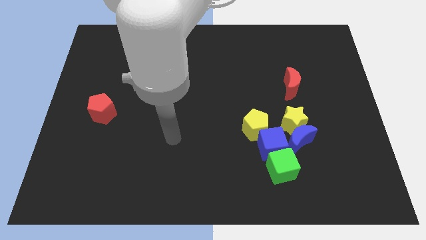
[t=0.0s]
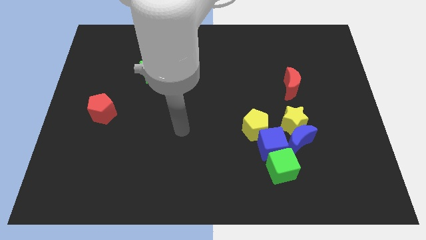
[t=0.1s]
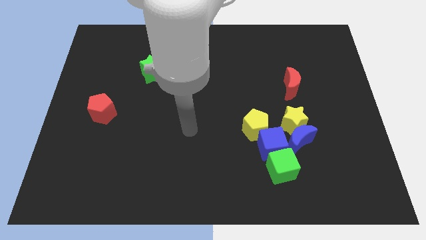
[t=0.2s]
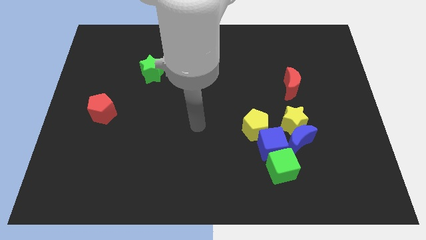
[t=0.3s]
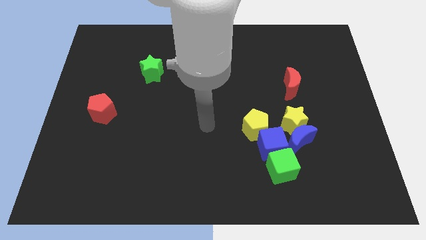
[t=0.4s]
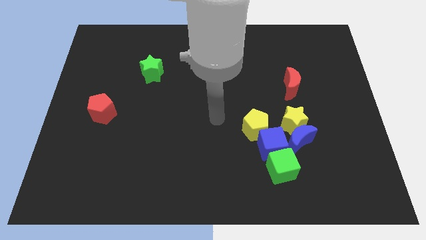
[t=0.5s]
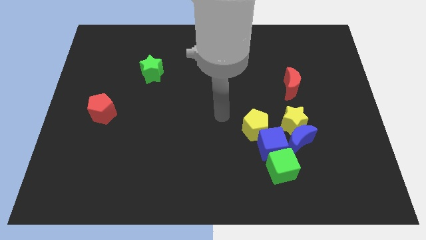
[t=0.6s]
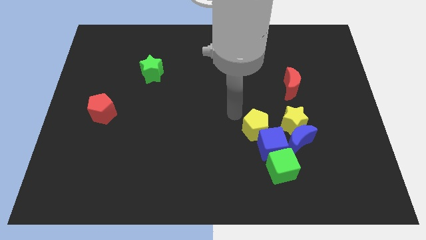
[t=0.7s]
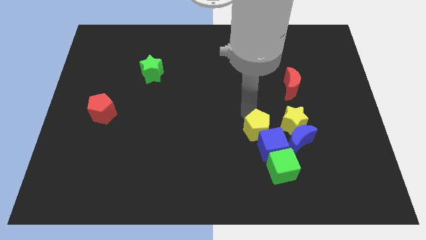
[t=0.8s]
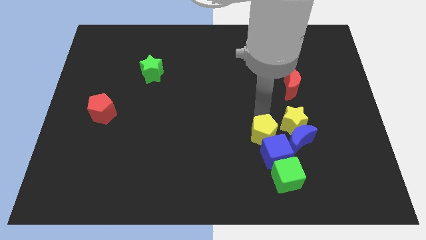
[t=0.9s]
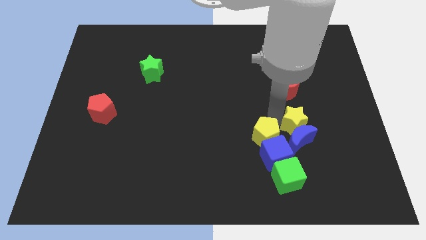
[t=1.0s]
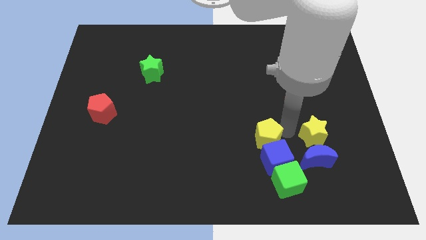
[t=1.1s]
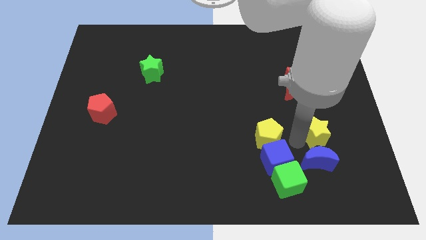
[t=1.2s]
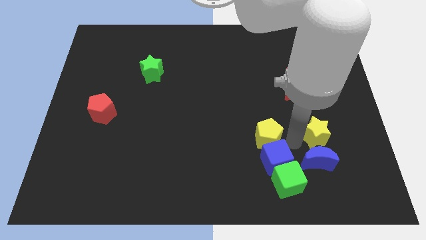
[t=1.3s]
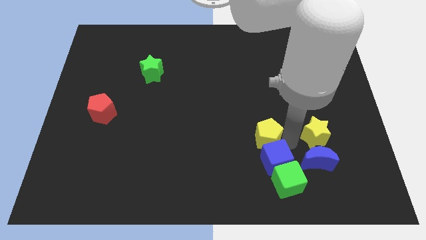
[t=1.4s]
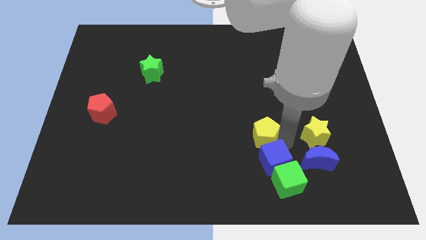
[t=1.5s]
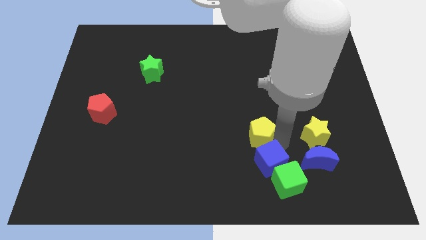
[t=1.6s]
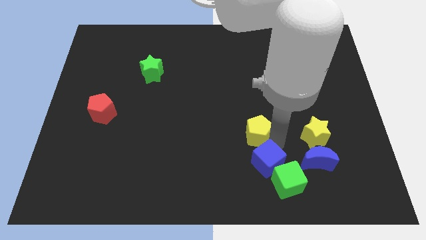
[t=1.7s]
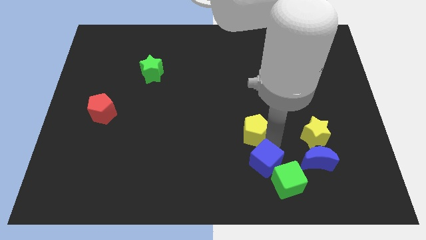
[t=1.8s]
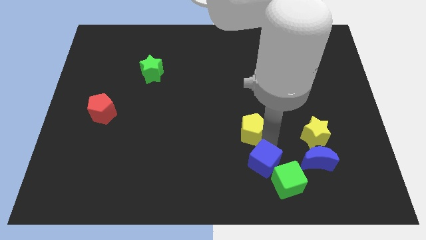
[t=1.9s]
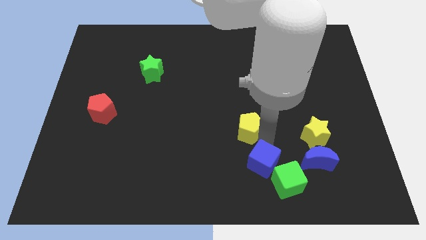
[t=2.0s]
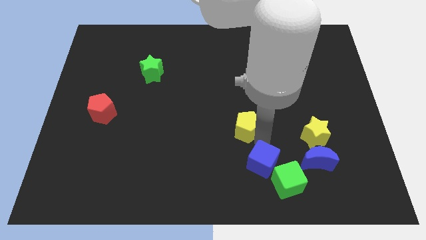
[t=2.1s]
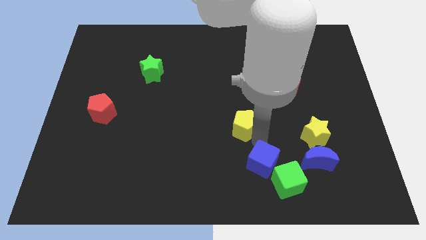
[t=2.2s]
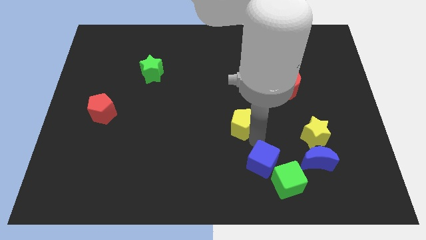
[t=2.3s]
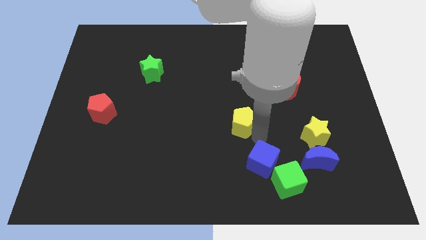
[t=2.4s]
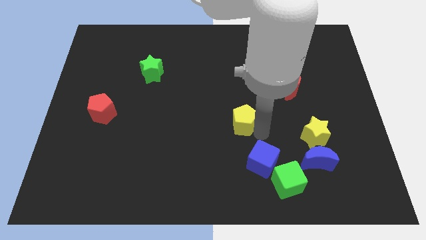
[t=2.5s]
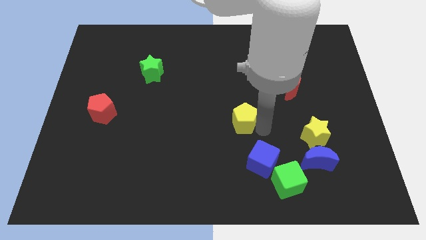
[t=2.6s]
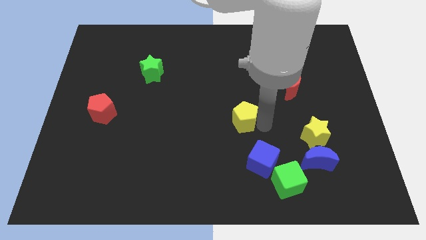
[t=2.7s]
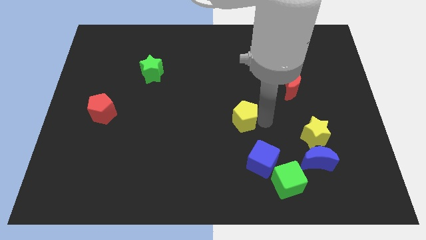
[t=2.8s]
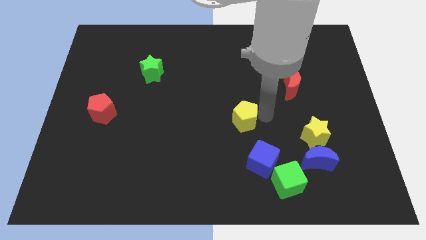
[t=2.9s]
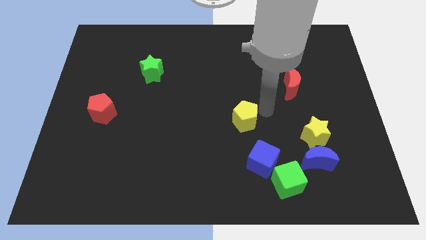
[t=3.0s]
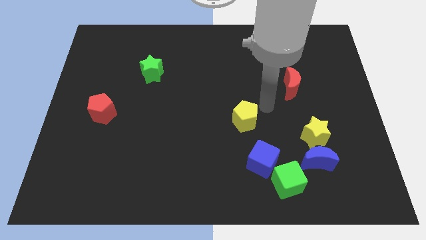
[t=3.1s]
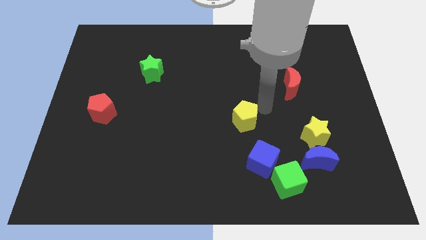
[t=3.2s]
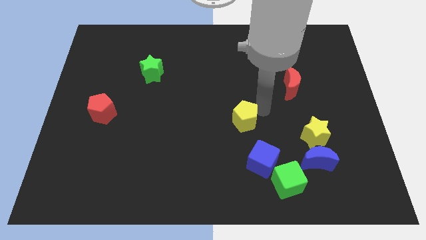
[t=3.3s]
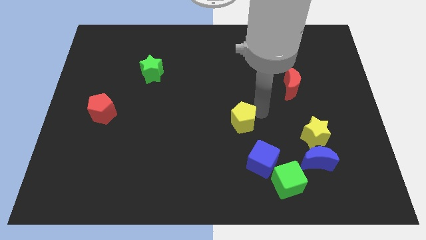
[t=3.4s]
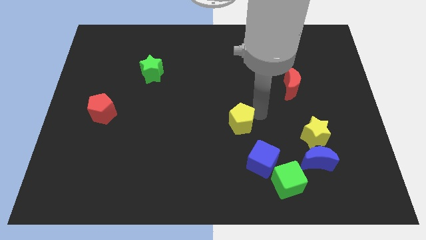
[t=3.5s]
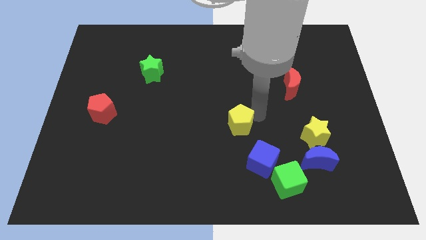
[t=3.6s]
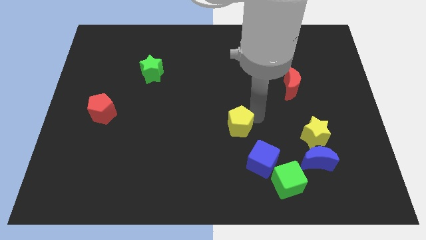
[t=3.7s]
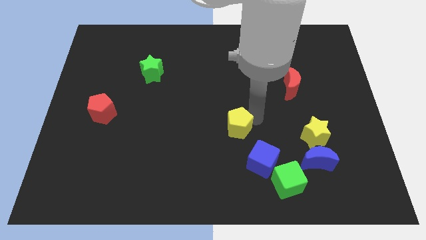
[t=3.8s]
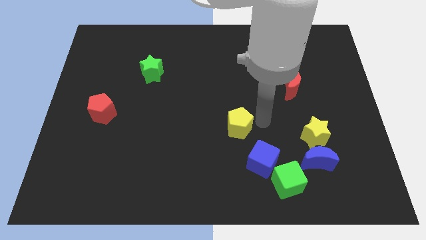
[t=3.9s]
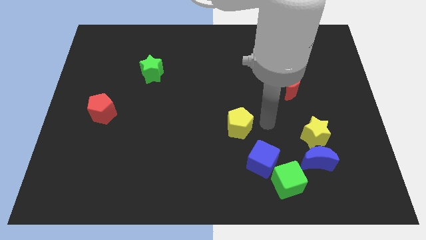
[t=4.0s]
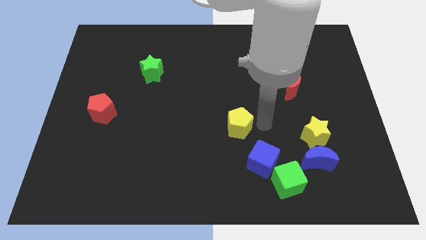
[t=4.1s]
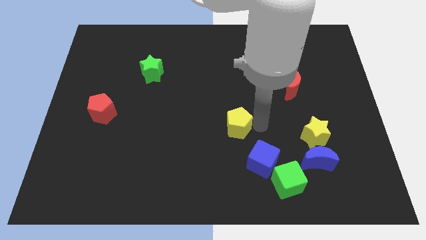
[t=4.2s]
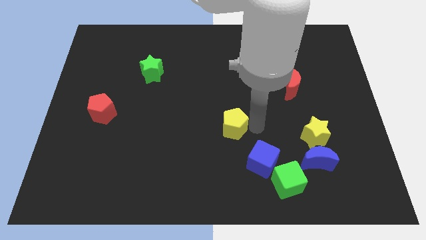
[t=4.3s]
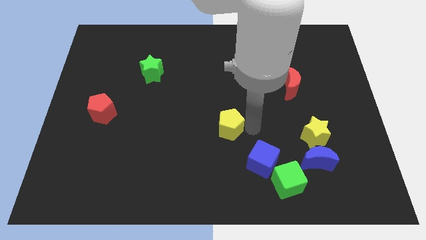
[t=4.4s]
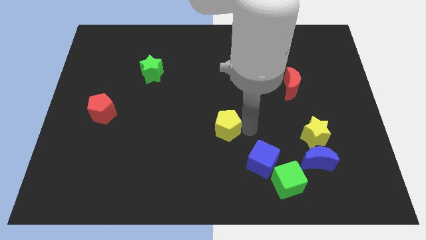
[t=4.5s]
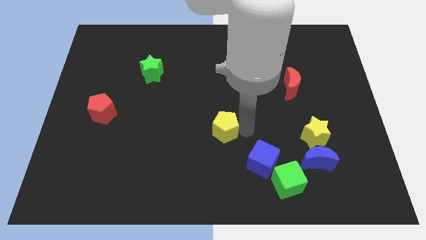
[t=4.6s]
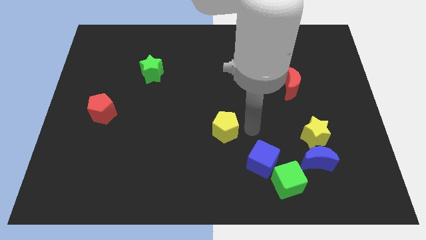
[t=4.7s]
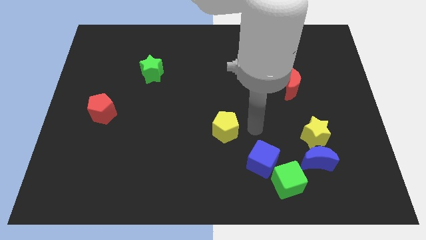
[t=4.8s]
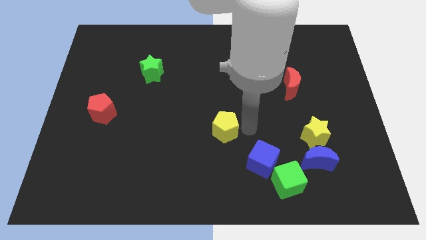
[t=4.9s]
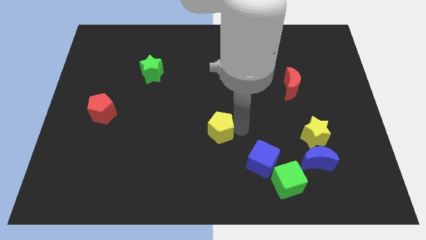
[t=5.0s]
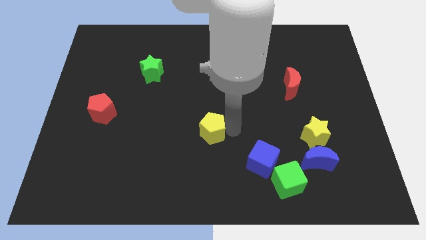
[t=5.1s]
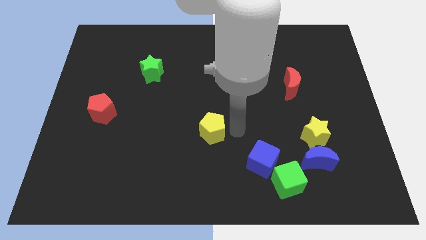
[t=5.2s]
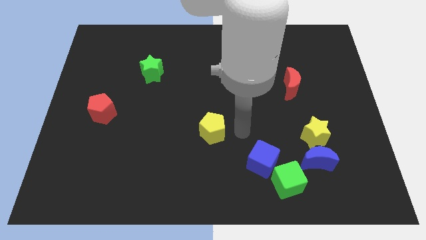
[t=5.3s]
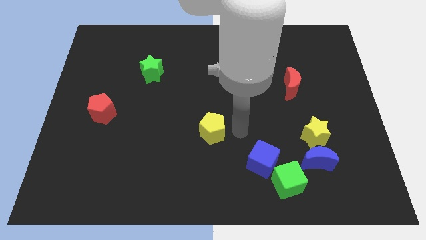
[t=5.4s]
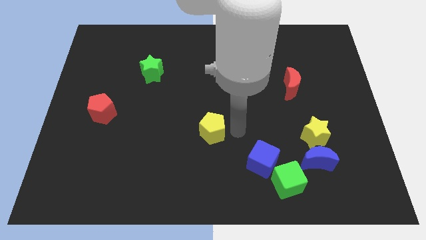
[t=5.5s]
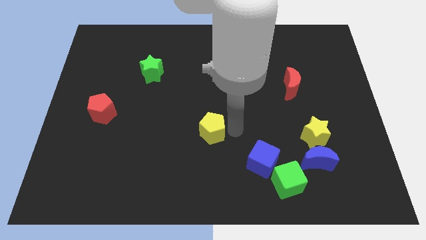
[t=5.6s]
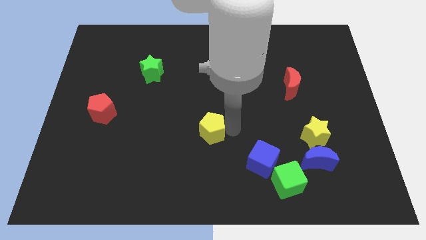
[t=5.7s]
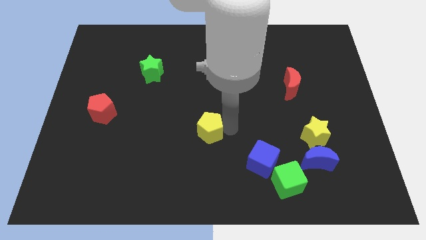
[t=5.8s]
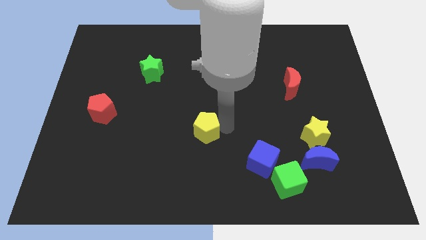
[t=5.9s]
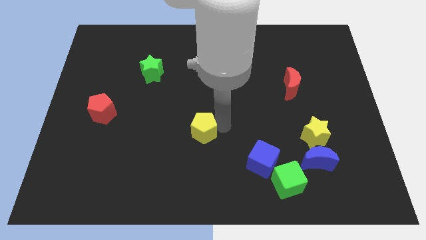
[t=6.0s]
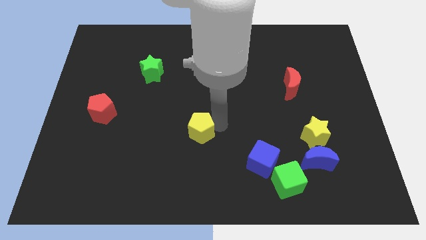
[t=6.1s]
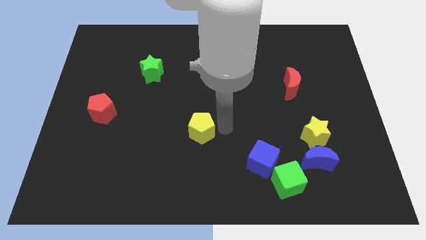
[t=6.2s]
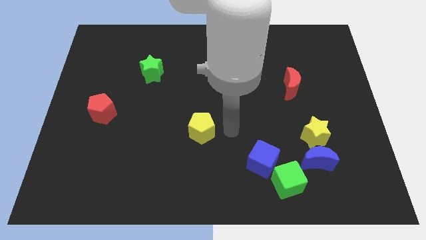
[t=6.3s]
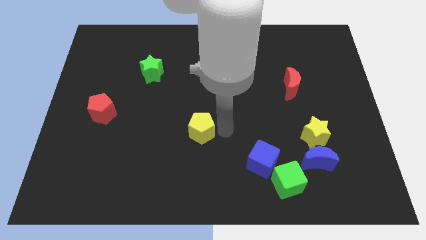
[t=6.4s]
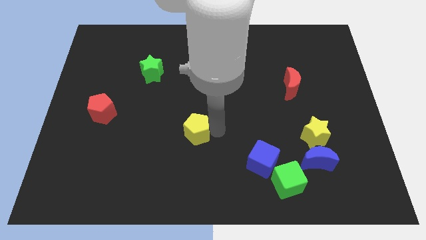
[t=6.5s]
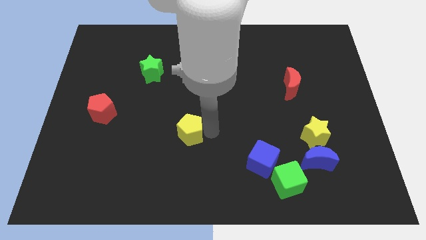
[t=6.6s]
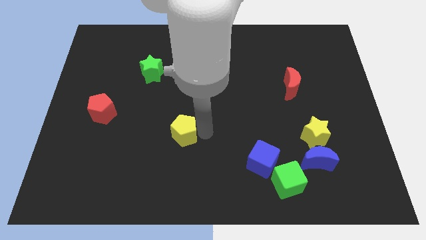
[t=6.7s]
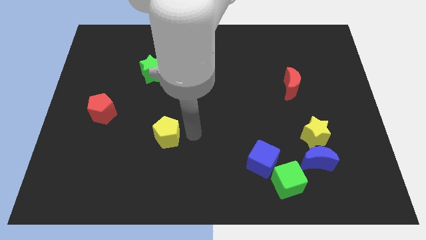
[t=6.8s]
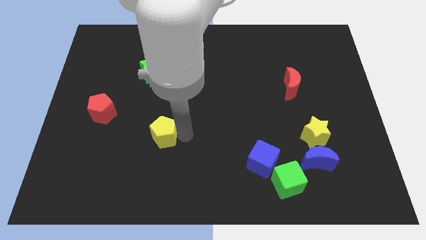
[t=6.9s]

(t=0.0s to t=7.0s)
push the yellow pentagon to the left

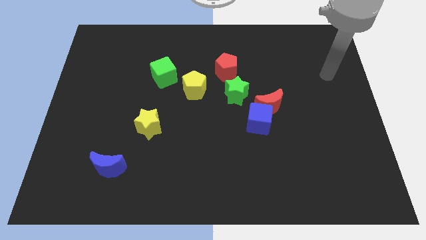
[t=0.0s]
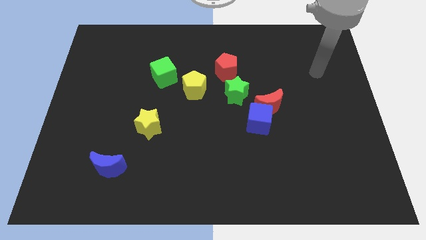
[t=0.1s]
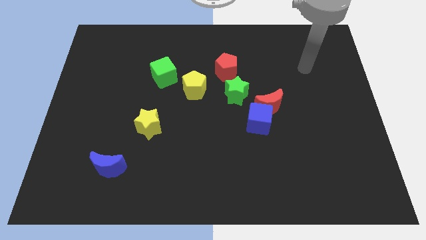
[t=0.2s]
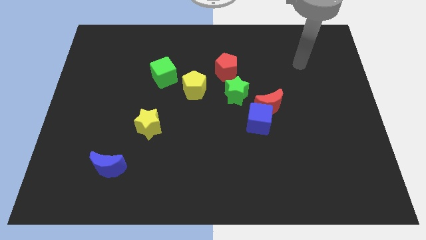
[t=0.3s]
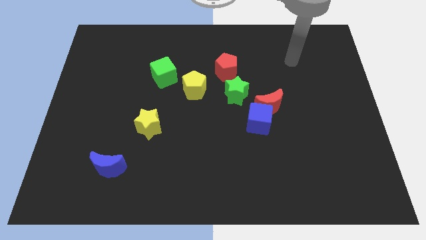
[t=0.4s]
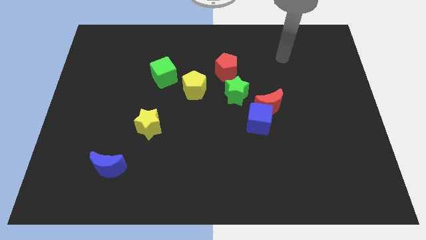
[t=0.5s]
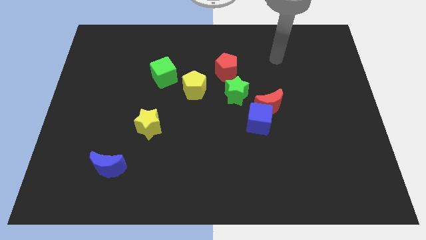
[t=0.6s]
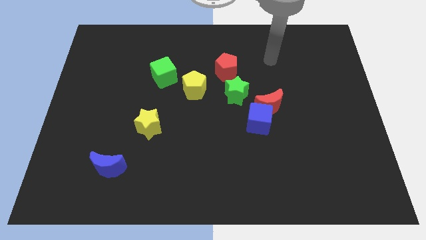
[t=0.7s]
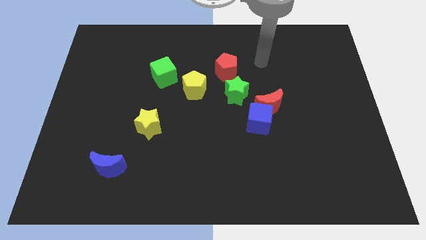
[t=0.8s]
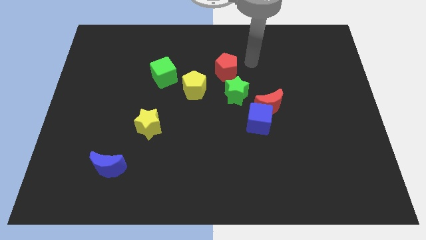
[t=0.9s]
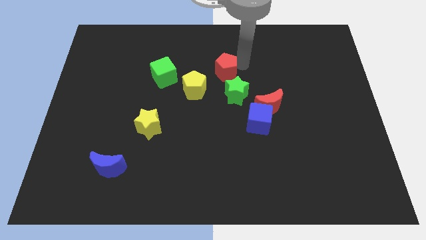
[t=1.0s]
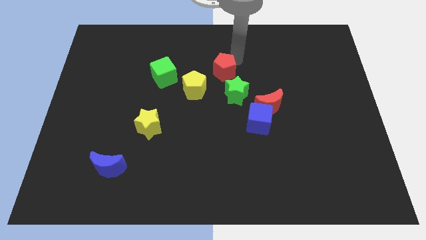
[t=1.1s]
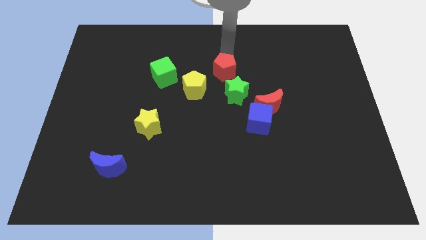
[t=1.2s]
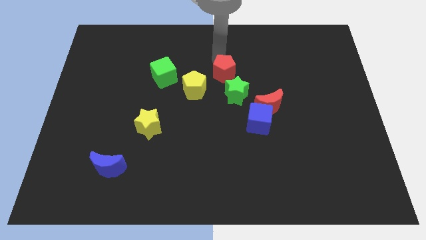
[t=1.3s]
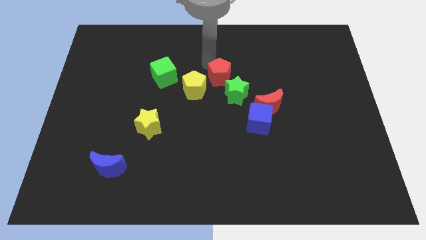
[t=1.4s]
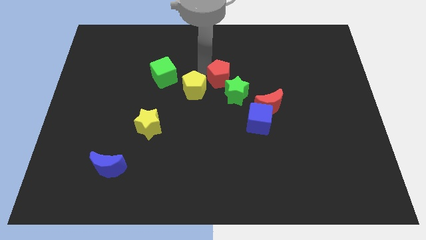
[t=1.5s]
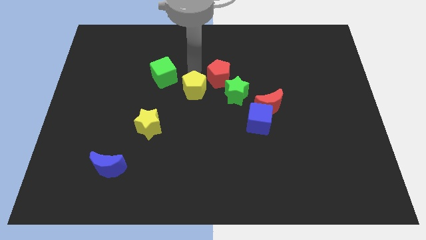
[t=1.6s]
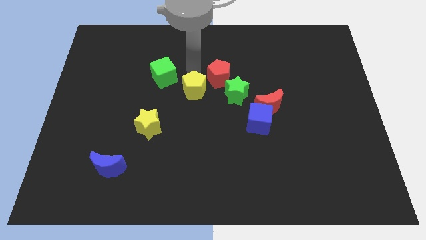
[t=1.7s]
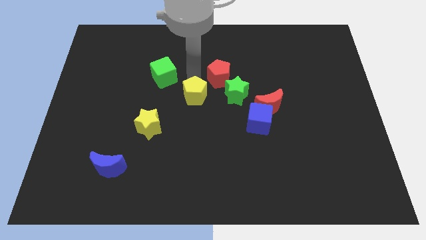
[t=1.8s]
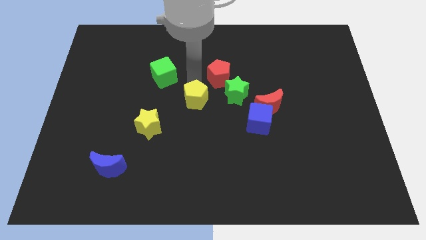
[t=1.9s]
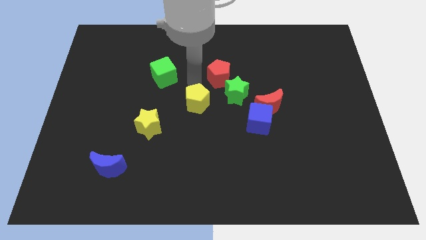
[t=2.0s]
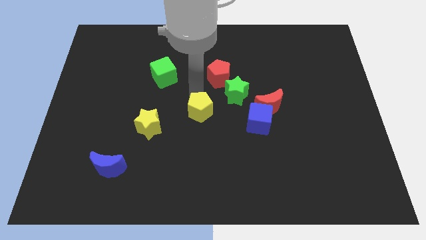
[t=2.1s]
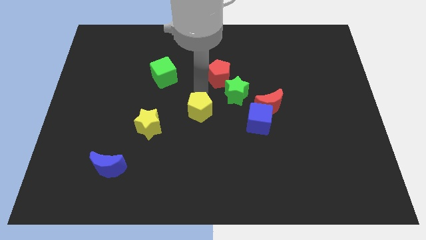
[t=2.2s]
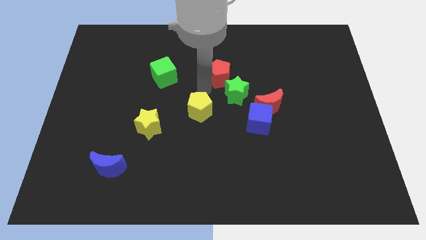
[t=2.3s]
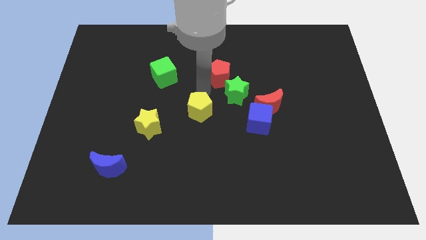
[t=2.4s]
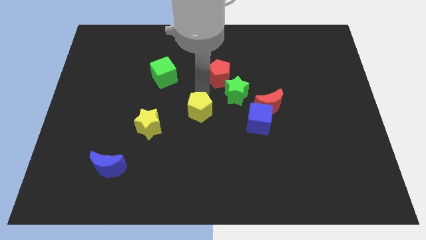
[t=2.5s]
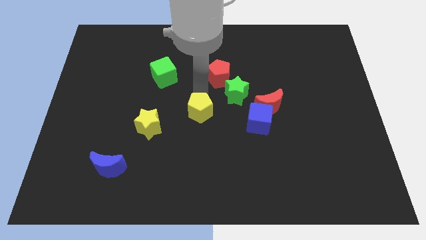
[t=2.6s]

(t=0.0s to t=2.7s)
push the yellow pentagon a bit down
